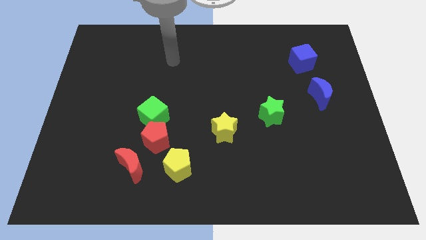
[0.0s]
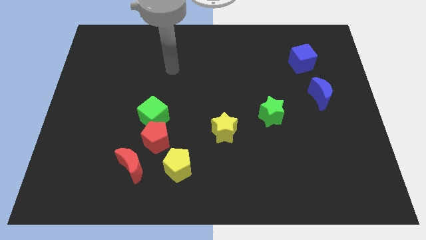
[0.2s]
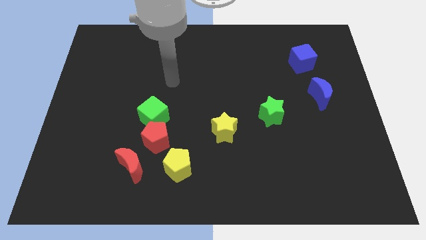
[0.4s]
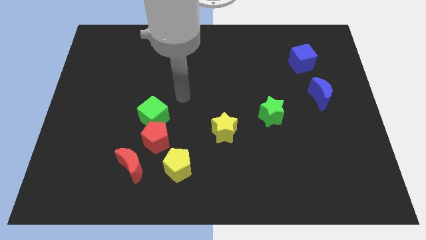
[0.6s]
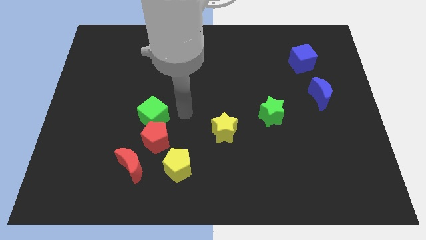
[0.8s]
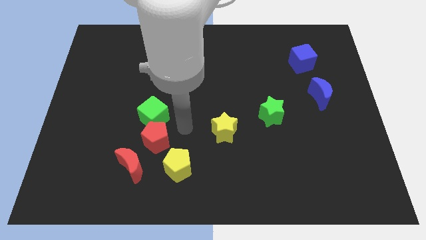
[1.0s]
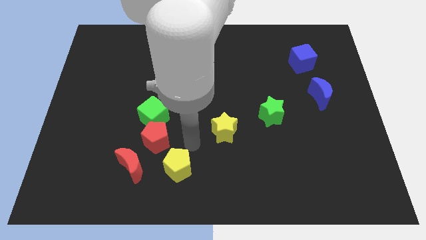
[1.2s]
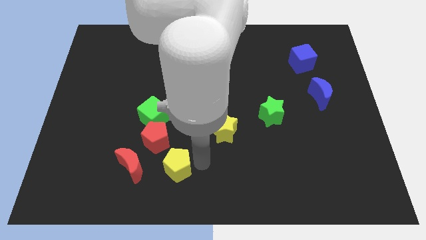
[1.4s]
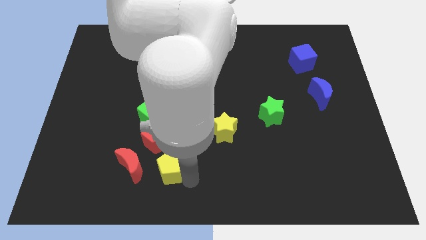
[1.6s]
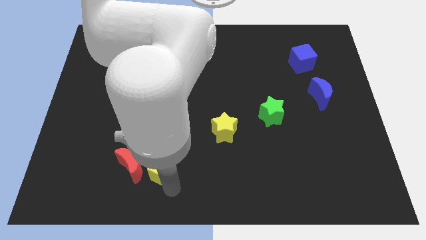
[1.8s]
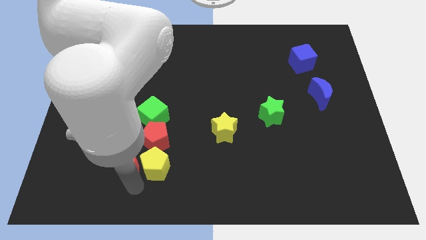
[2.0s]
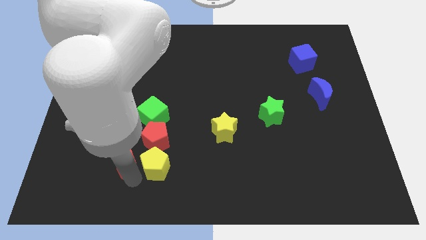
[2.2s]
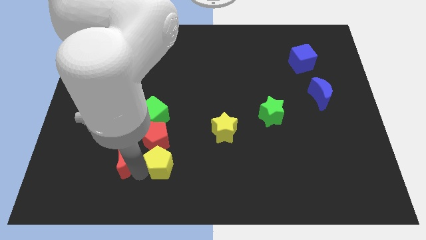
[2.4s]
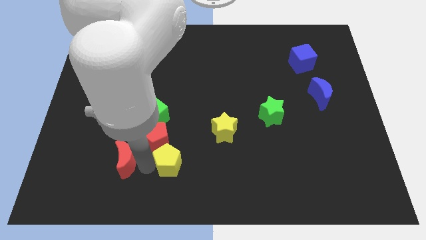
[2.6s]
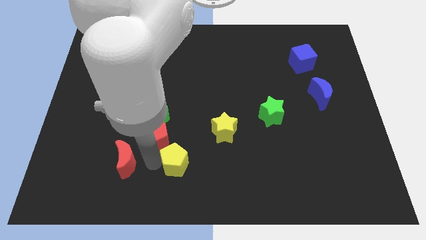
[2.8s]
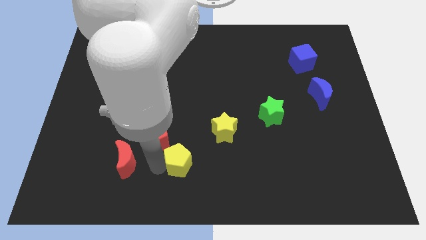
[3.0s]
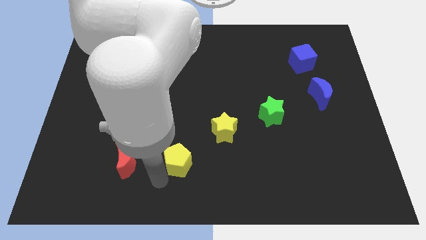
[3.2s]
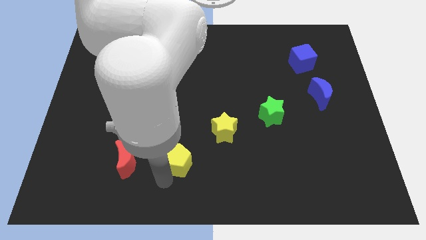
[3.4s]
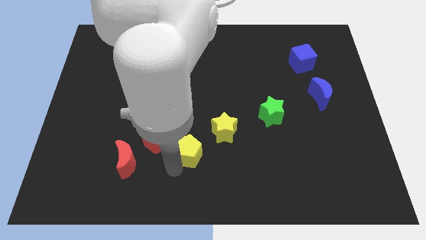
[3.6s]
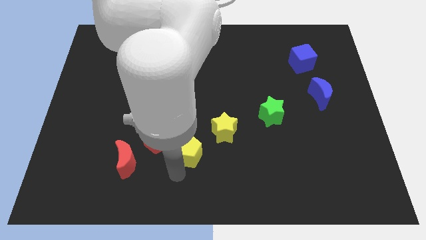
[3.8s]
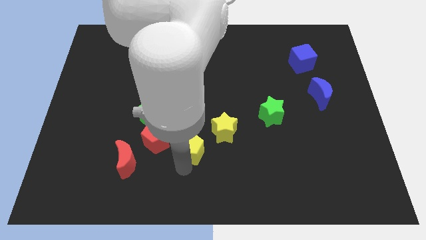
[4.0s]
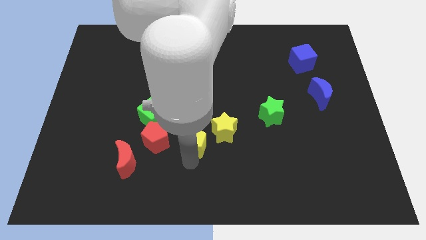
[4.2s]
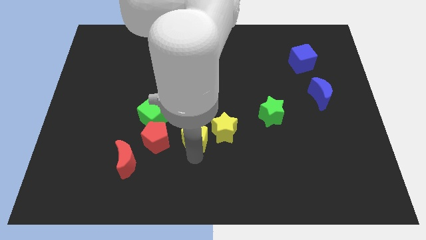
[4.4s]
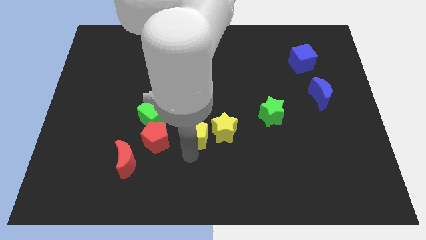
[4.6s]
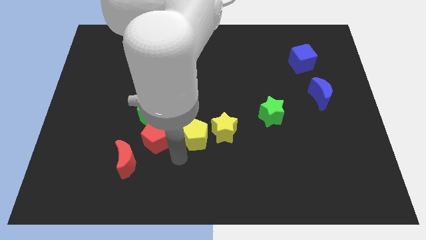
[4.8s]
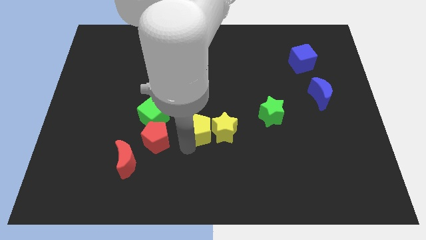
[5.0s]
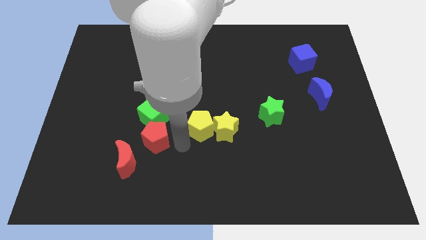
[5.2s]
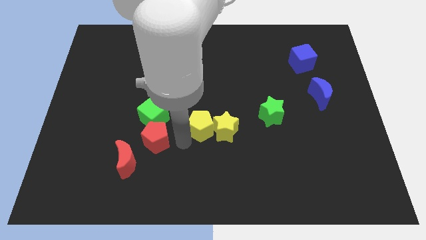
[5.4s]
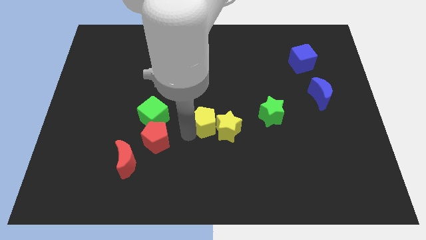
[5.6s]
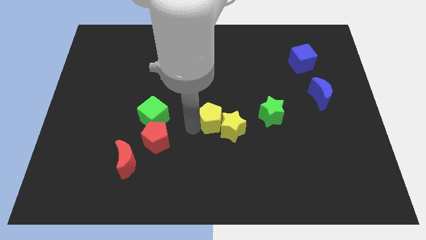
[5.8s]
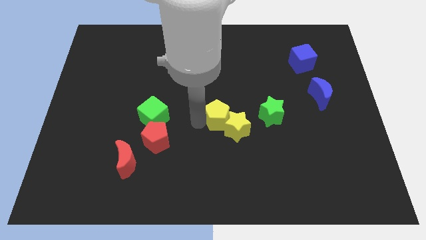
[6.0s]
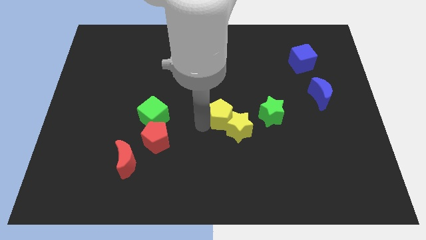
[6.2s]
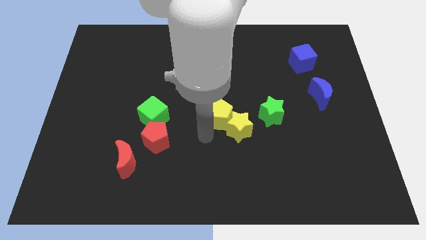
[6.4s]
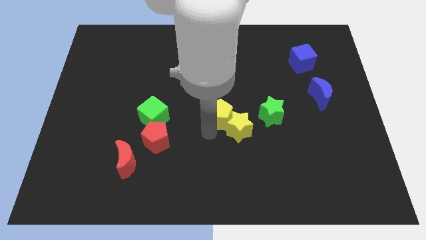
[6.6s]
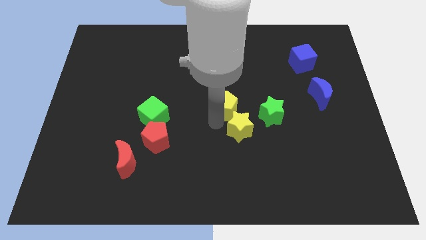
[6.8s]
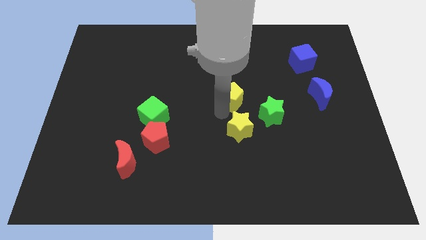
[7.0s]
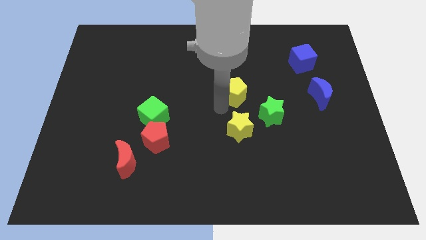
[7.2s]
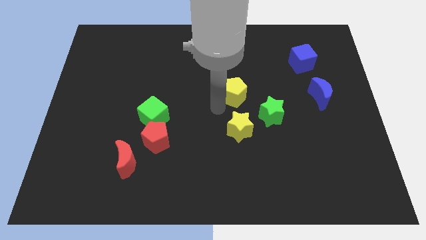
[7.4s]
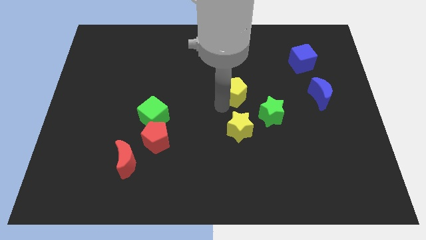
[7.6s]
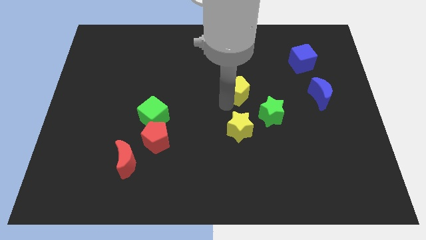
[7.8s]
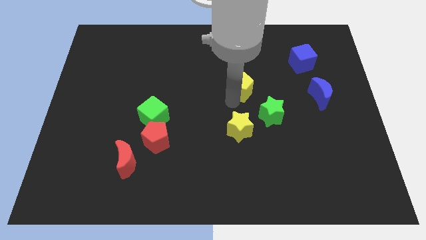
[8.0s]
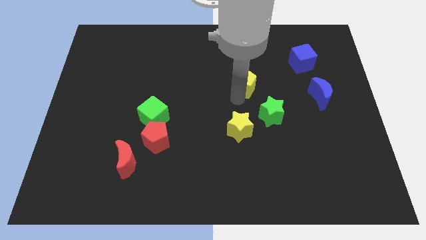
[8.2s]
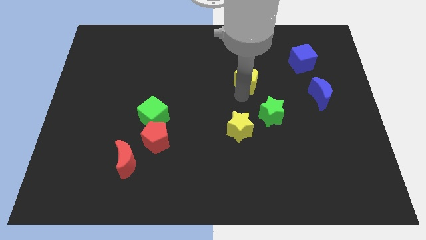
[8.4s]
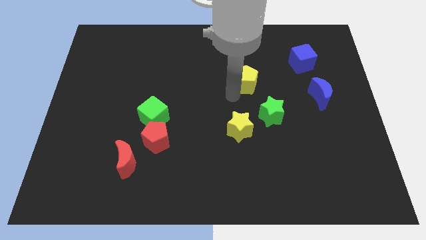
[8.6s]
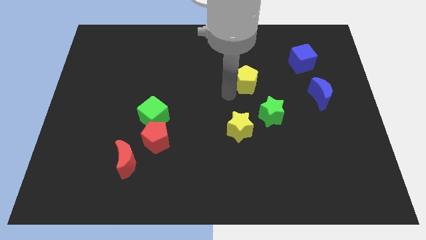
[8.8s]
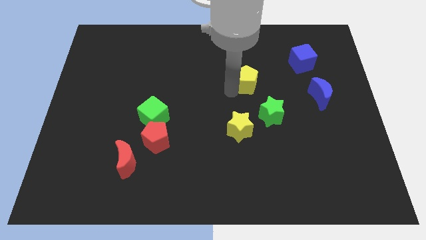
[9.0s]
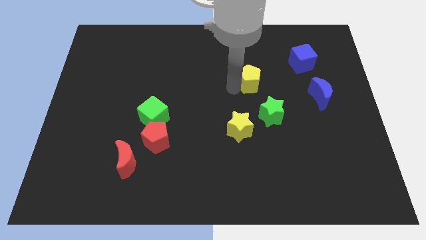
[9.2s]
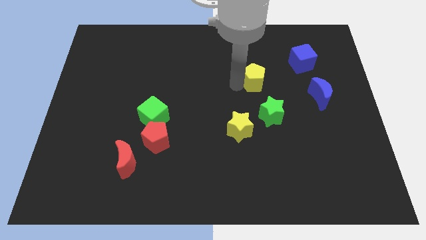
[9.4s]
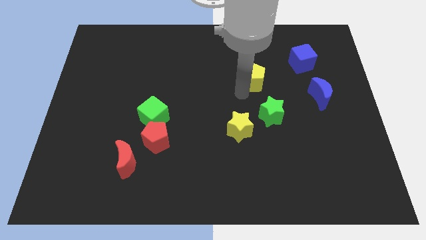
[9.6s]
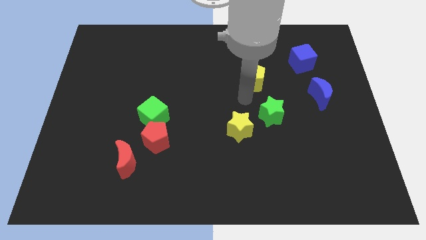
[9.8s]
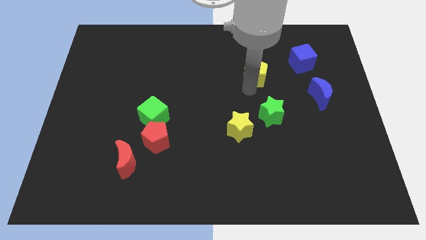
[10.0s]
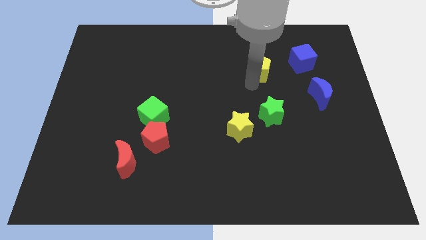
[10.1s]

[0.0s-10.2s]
put the yellow pentagon just left of the blue cube
